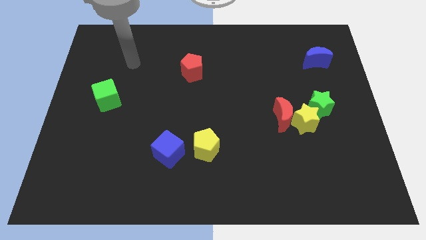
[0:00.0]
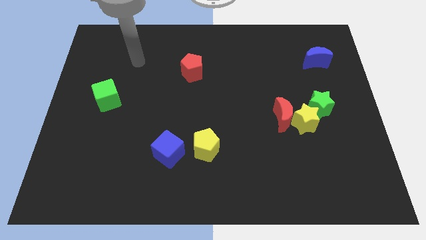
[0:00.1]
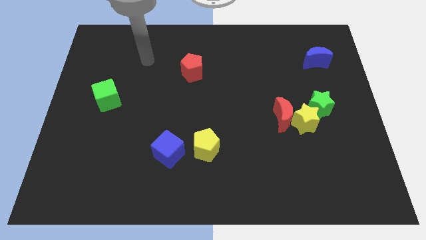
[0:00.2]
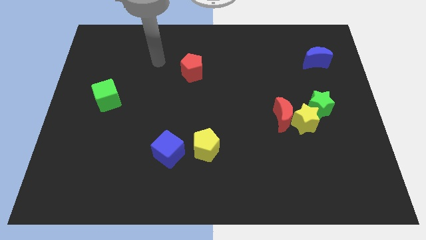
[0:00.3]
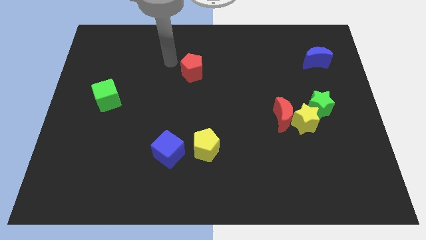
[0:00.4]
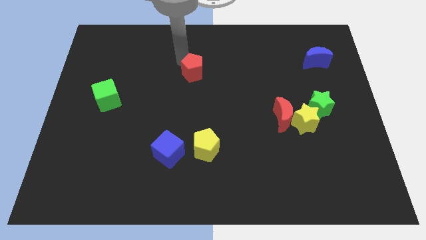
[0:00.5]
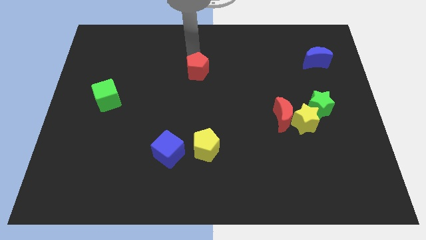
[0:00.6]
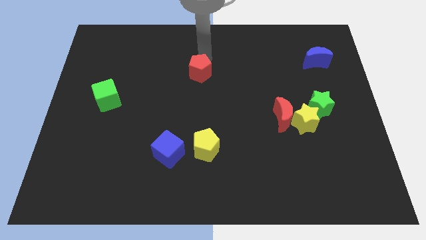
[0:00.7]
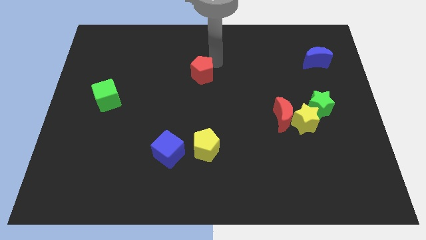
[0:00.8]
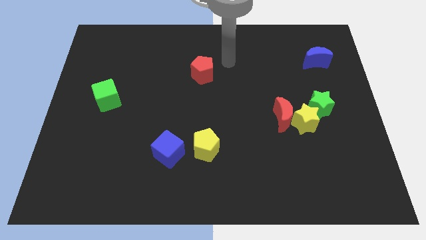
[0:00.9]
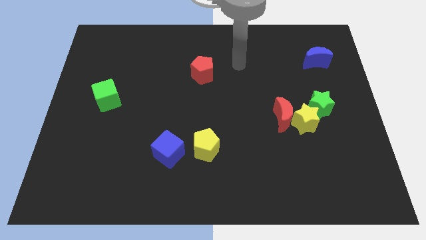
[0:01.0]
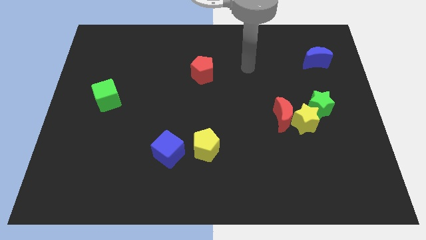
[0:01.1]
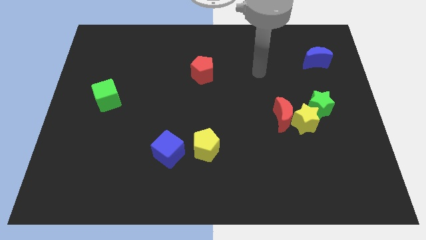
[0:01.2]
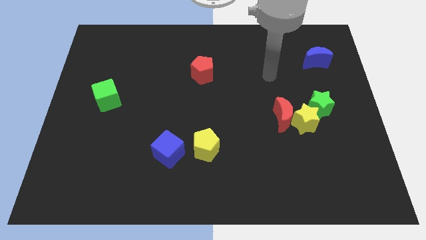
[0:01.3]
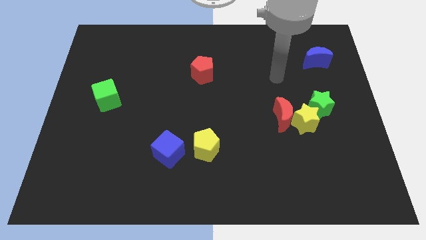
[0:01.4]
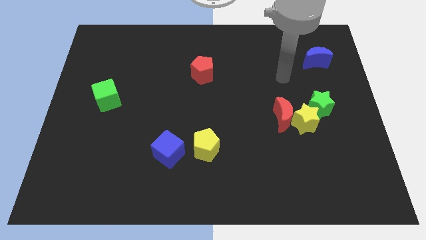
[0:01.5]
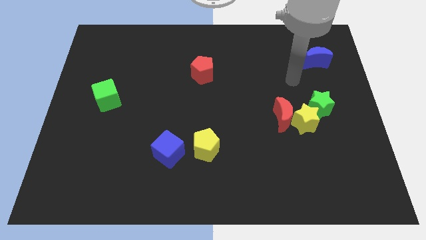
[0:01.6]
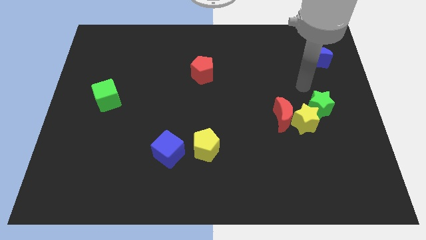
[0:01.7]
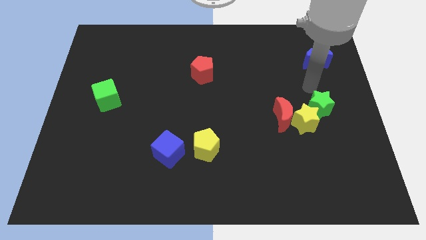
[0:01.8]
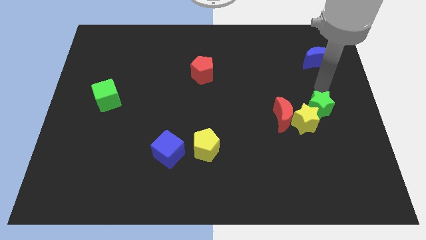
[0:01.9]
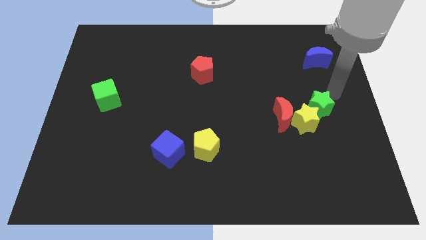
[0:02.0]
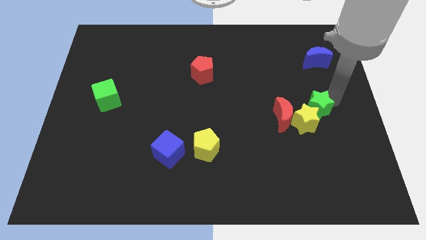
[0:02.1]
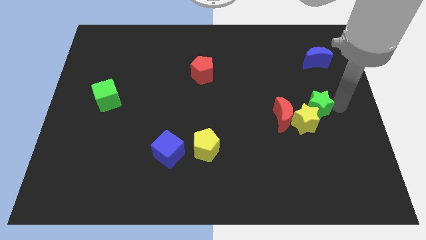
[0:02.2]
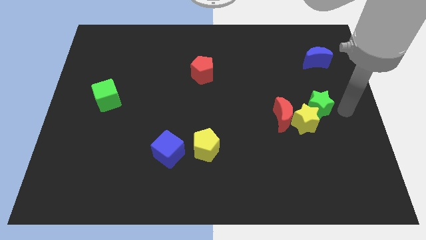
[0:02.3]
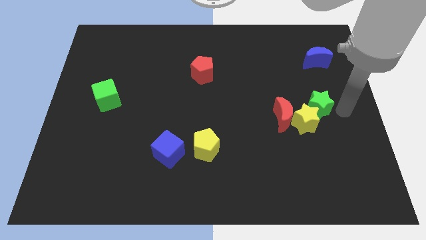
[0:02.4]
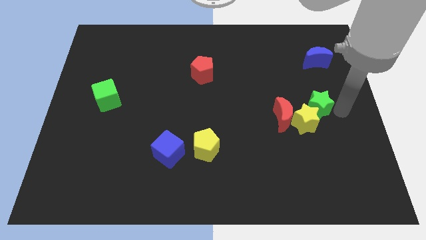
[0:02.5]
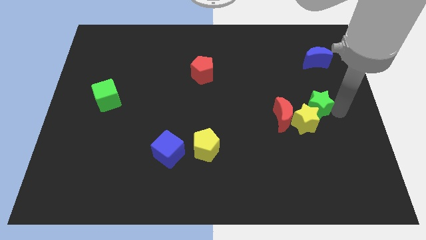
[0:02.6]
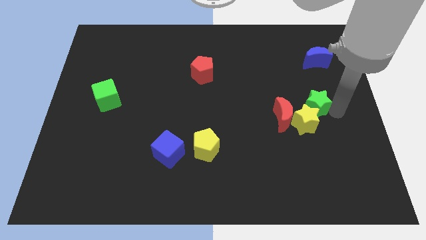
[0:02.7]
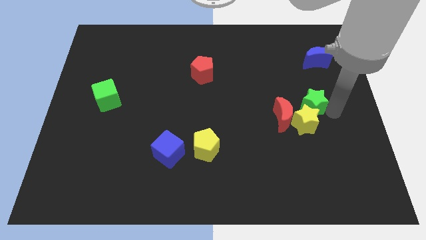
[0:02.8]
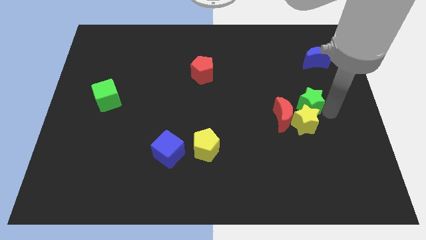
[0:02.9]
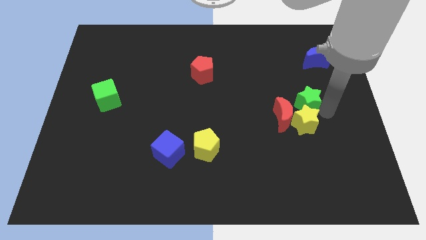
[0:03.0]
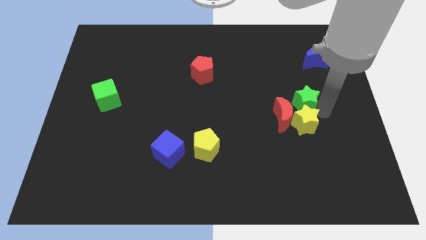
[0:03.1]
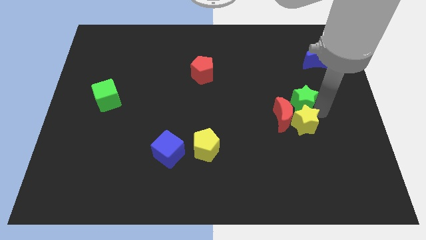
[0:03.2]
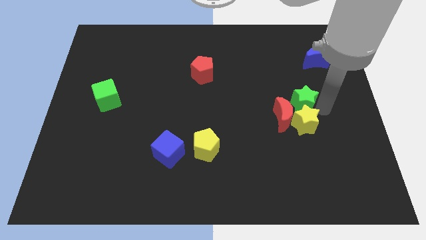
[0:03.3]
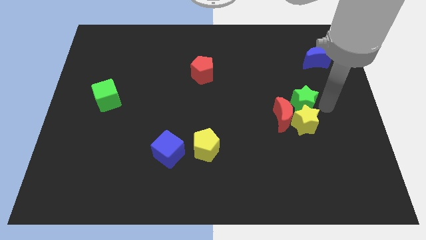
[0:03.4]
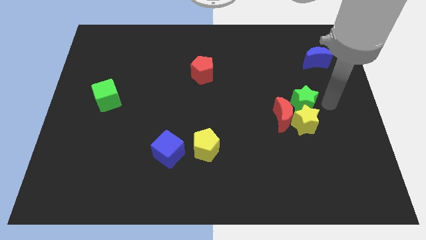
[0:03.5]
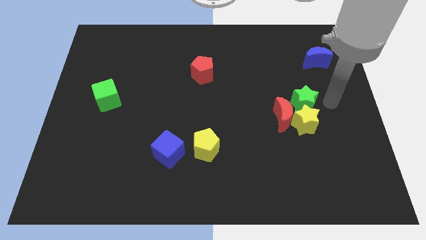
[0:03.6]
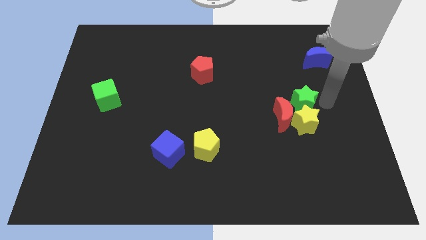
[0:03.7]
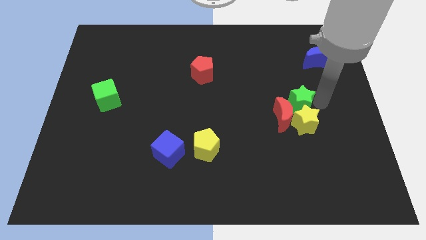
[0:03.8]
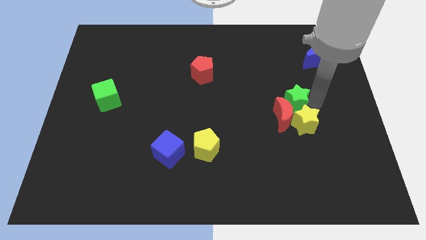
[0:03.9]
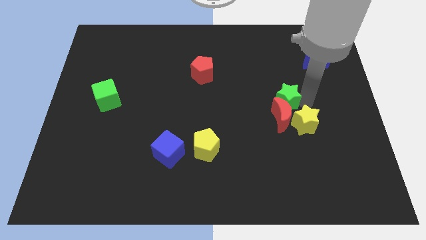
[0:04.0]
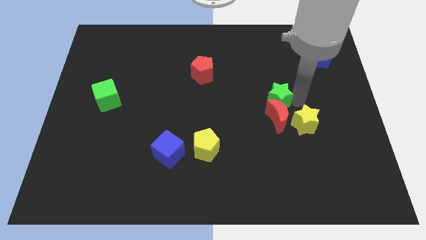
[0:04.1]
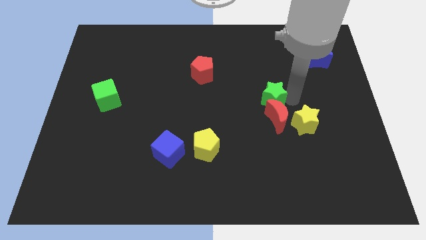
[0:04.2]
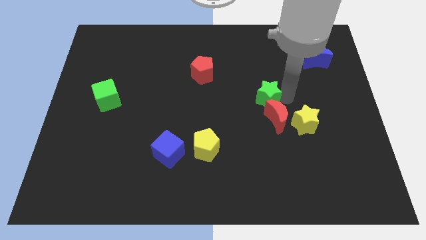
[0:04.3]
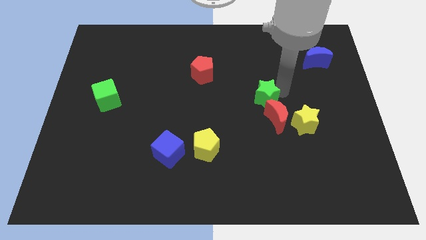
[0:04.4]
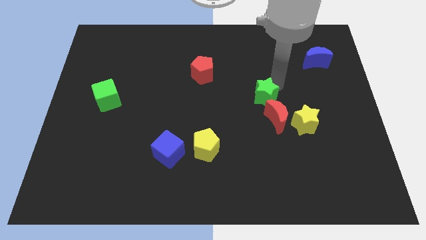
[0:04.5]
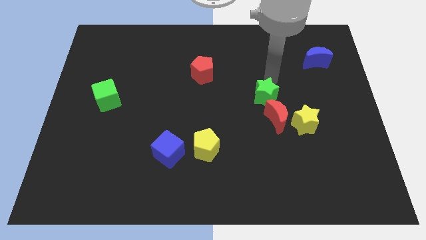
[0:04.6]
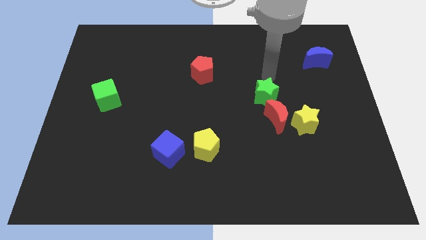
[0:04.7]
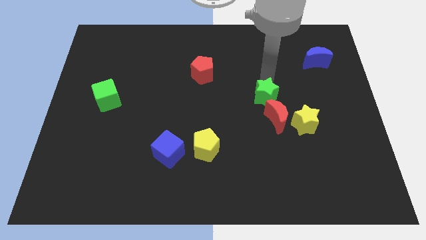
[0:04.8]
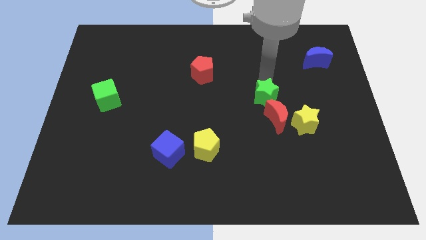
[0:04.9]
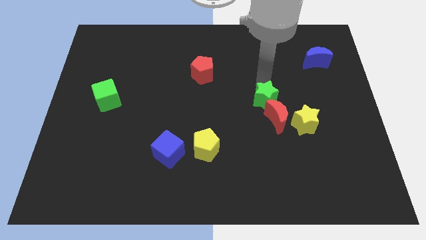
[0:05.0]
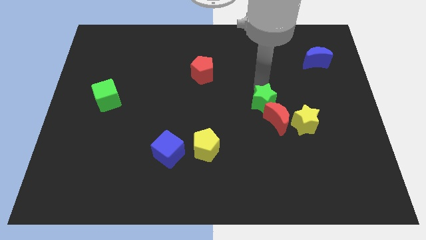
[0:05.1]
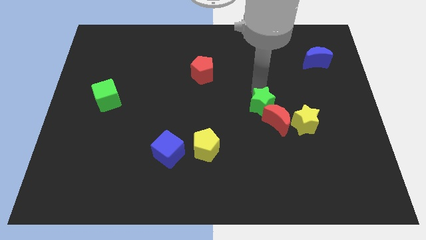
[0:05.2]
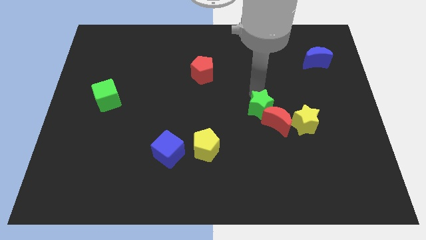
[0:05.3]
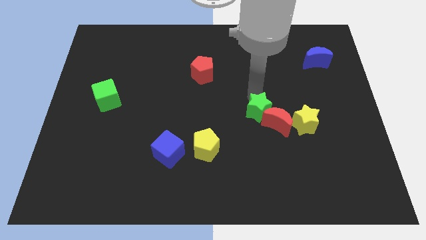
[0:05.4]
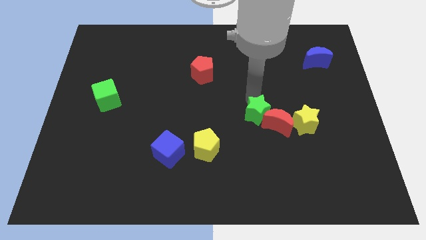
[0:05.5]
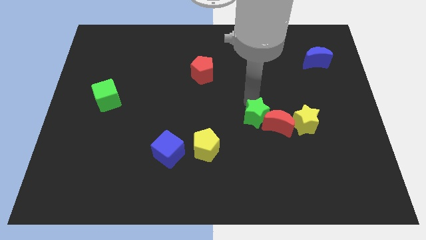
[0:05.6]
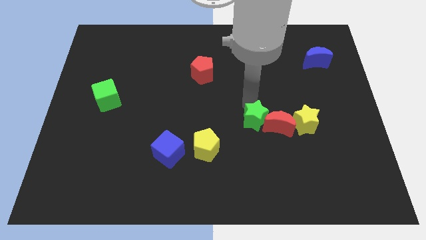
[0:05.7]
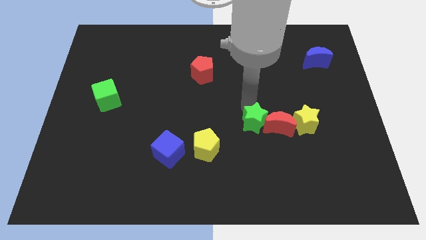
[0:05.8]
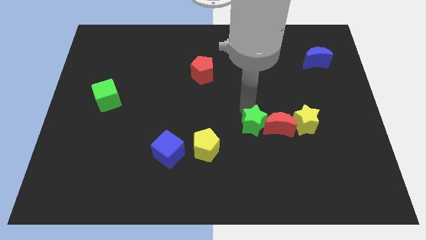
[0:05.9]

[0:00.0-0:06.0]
push the green star to the bottom left side of the red moon

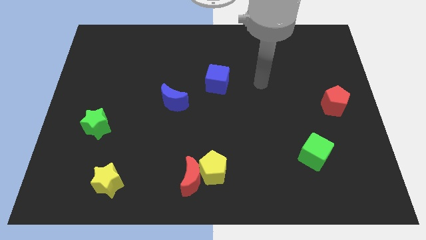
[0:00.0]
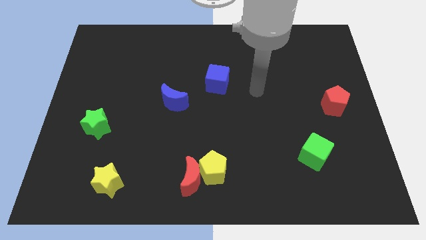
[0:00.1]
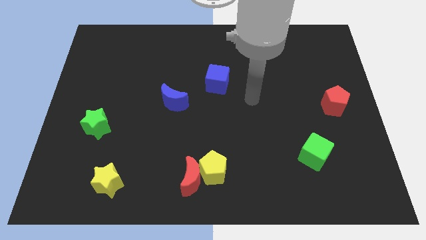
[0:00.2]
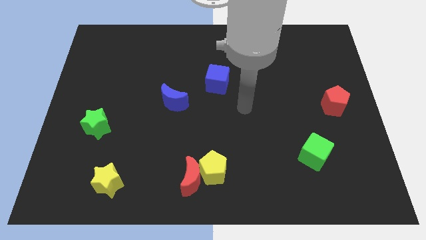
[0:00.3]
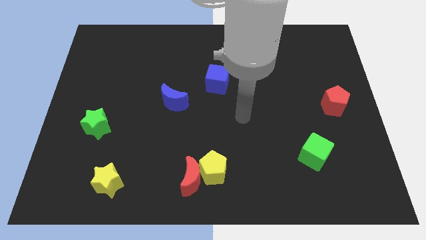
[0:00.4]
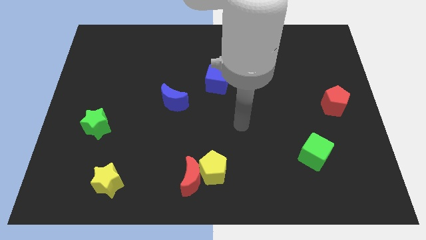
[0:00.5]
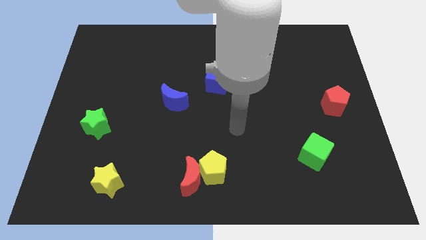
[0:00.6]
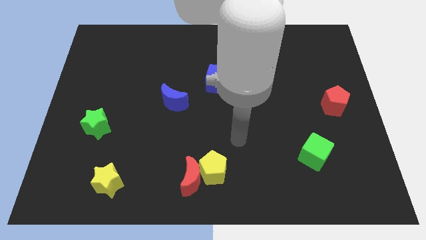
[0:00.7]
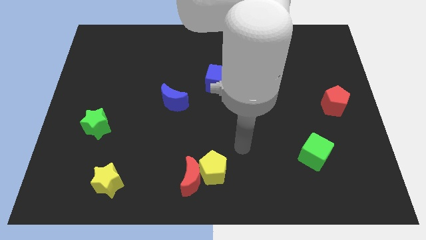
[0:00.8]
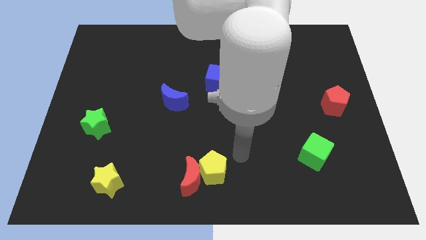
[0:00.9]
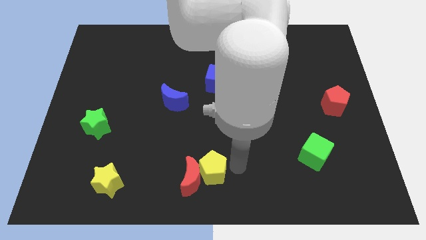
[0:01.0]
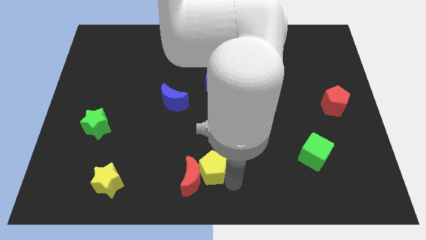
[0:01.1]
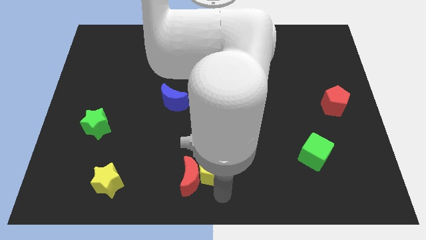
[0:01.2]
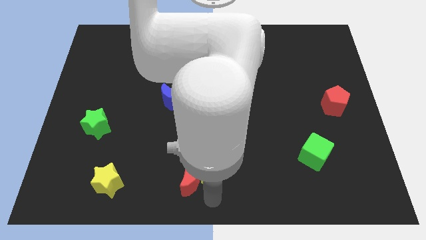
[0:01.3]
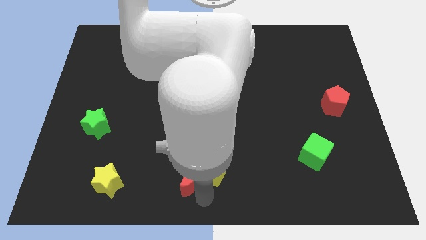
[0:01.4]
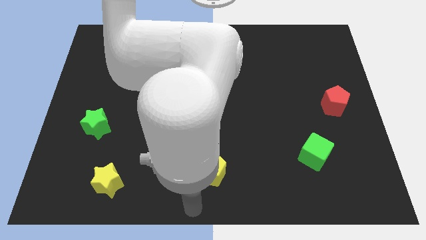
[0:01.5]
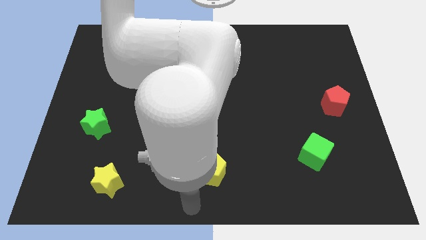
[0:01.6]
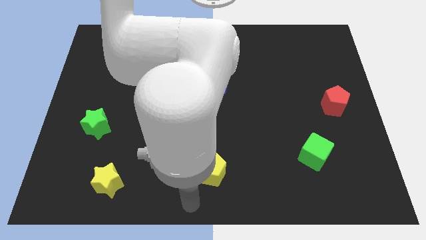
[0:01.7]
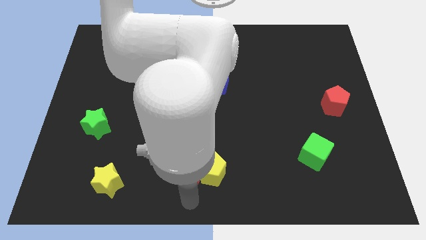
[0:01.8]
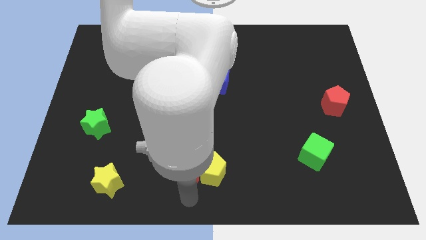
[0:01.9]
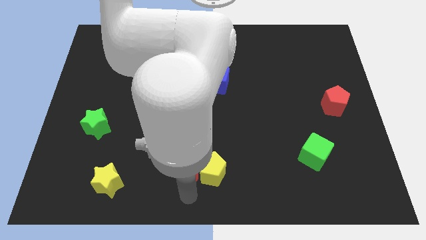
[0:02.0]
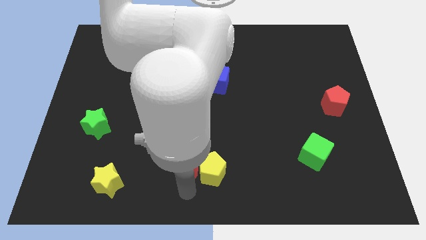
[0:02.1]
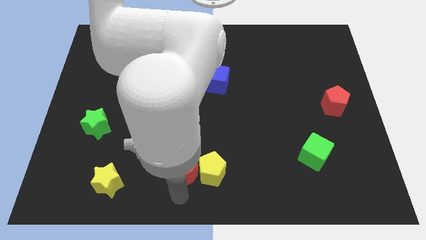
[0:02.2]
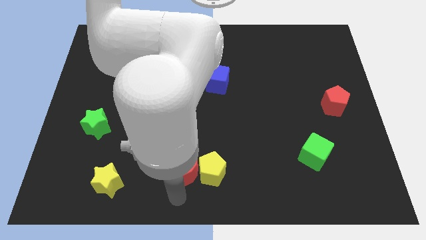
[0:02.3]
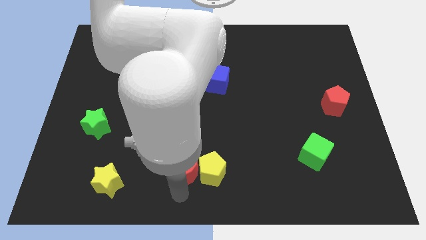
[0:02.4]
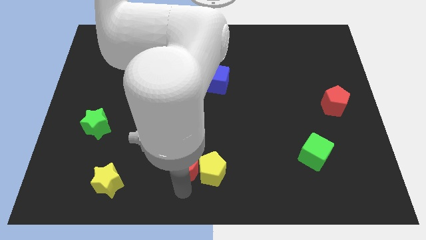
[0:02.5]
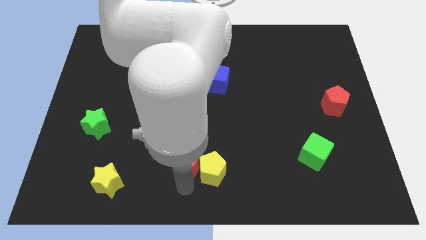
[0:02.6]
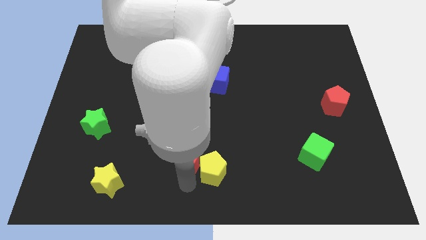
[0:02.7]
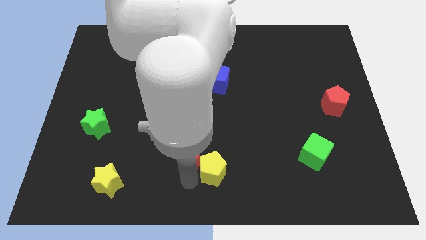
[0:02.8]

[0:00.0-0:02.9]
push the red moon above the yellow pentagon
